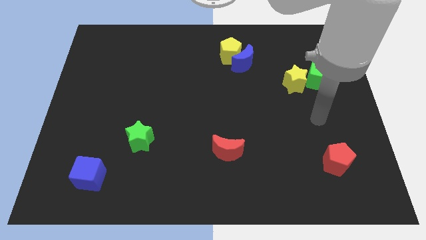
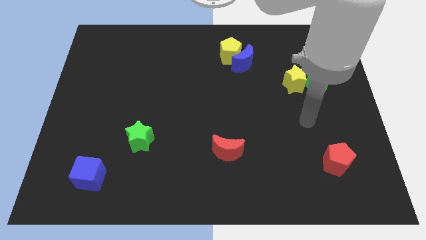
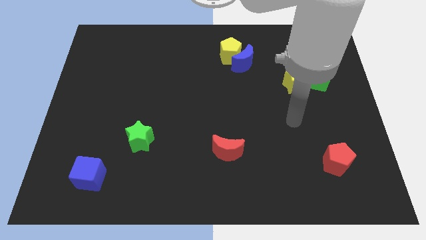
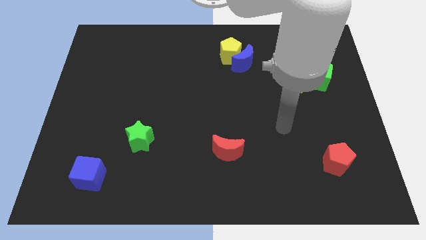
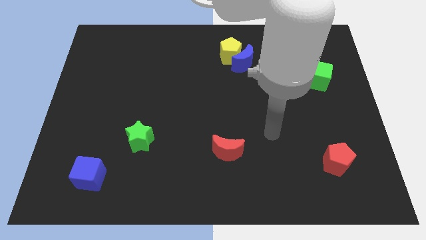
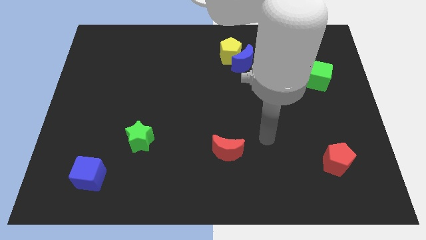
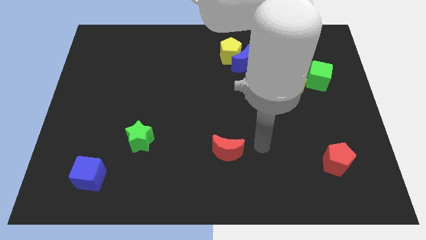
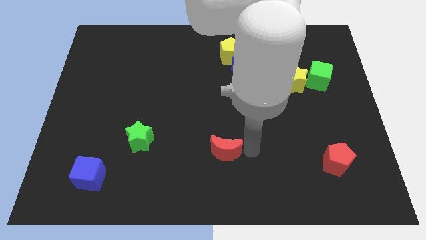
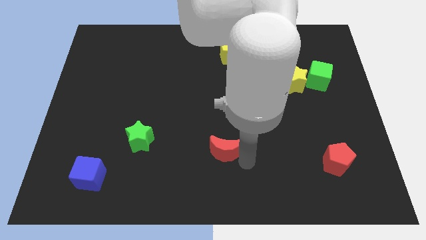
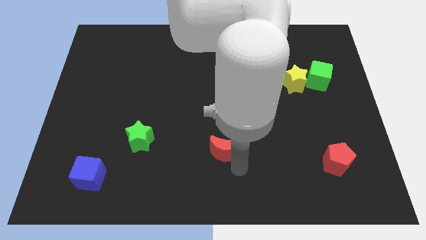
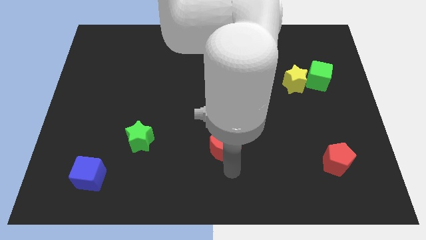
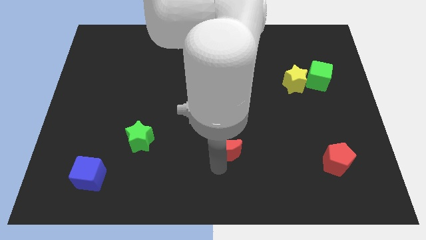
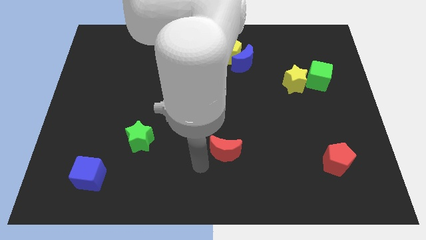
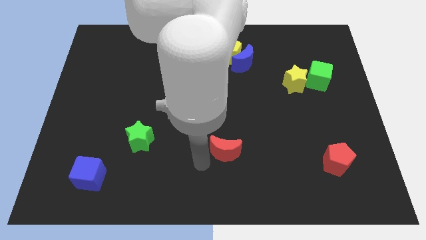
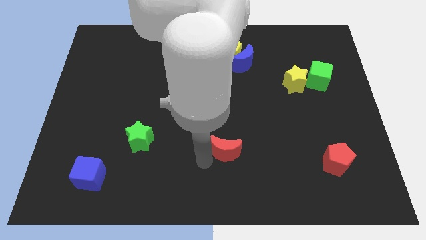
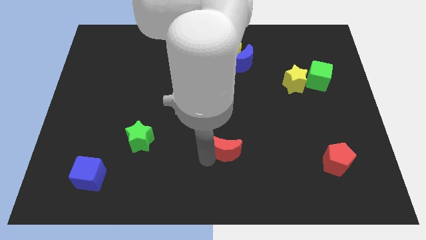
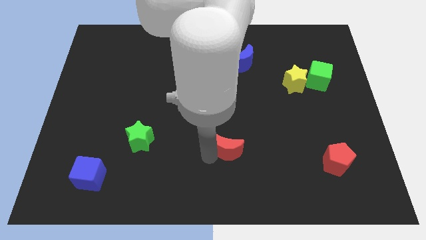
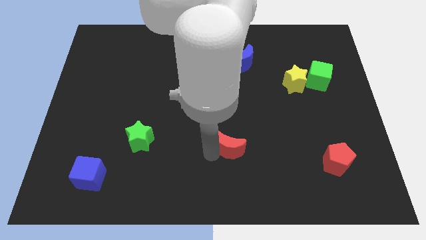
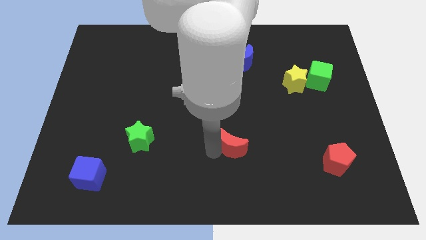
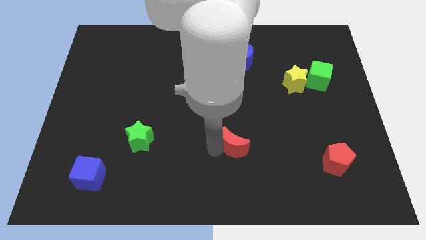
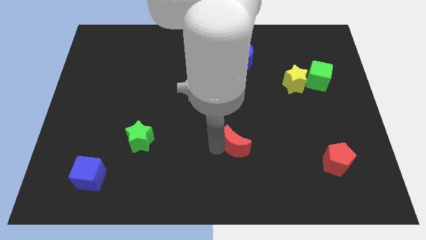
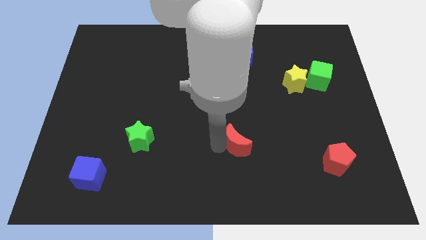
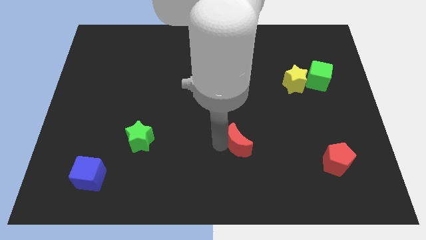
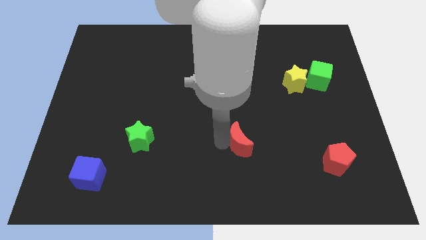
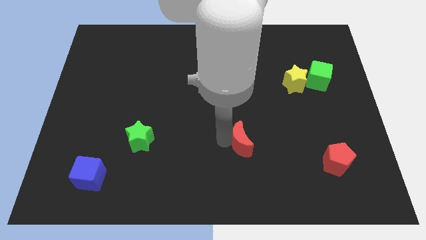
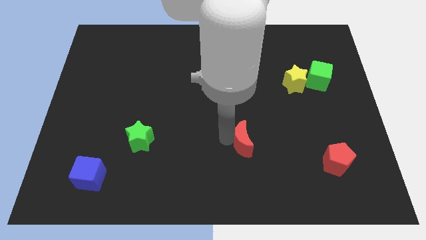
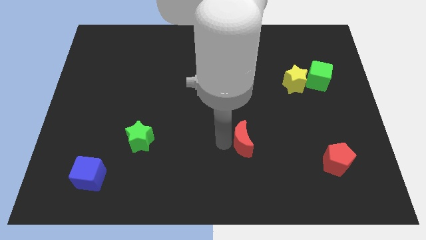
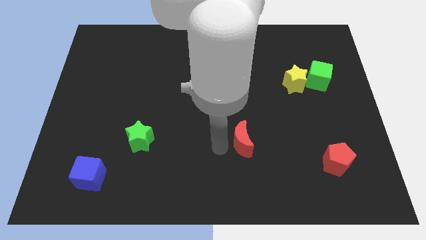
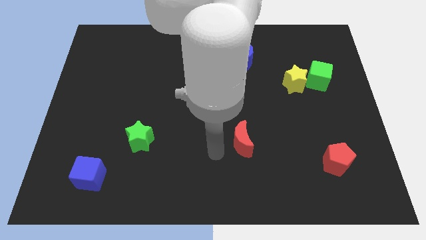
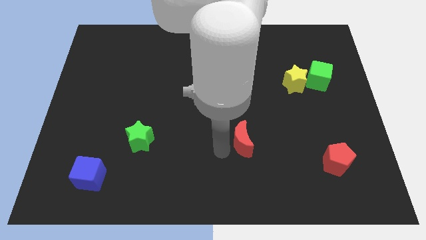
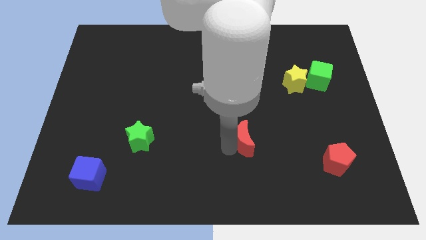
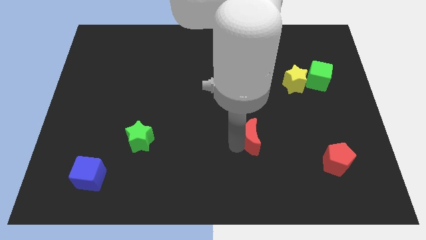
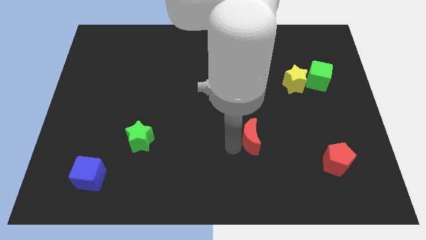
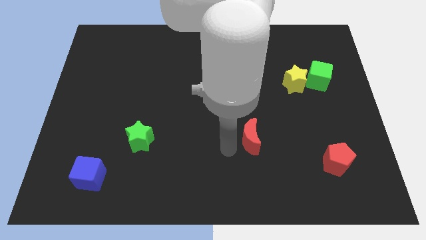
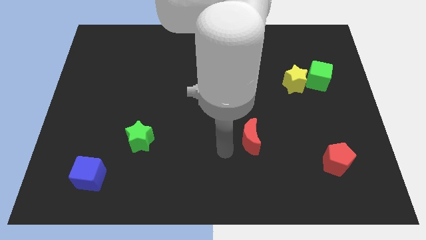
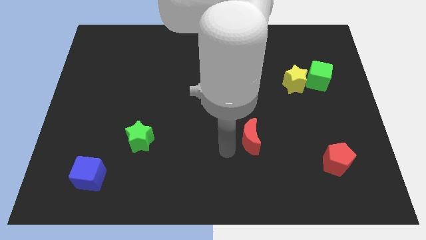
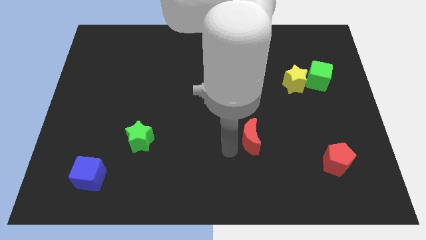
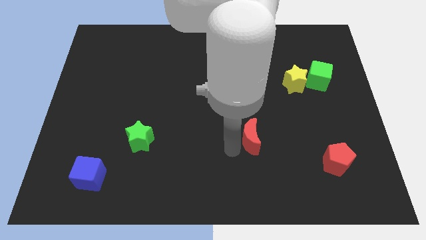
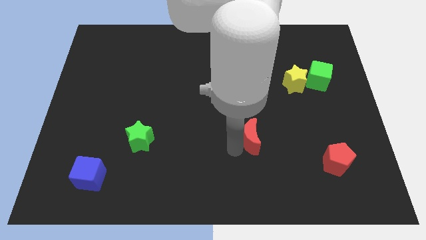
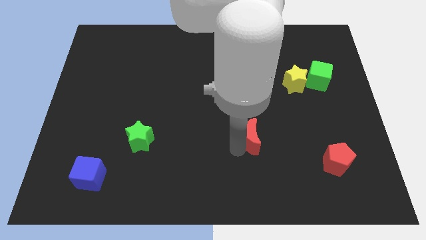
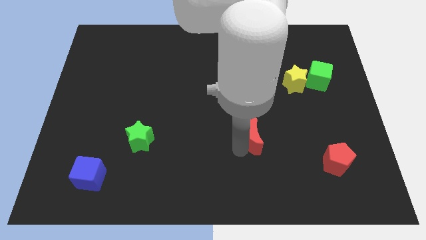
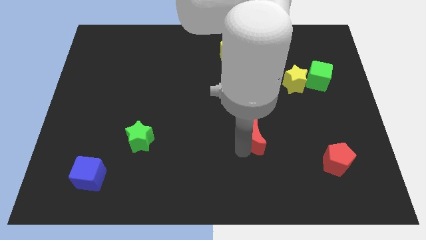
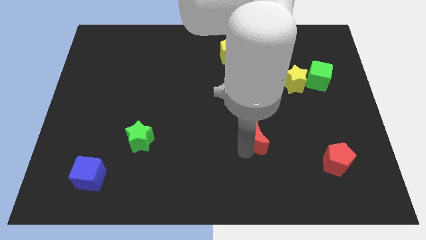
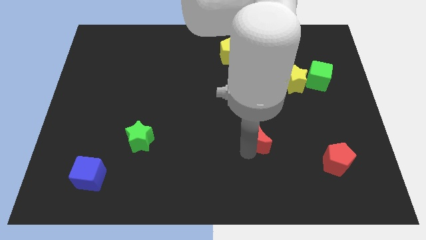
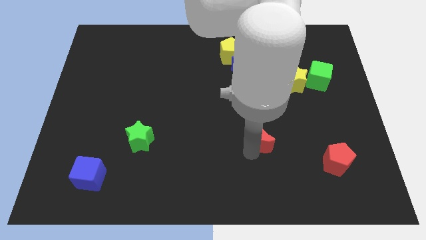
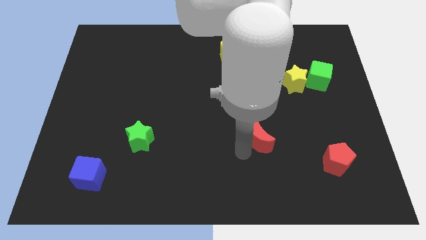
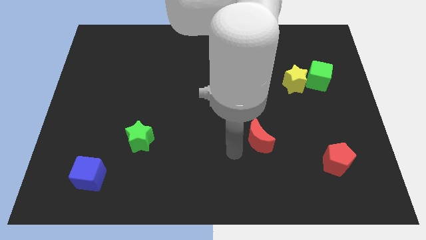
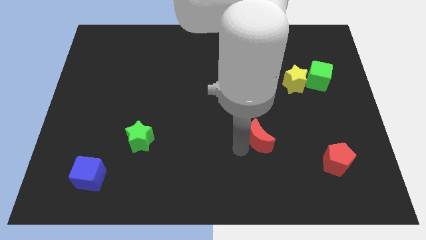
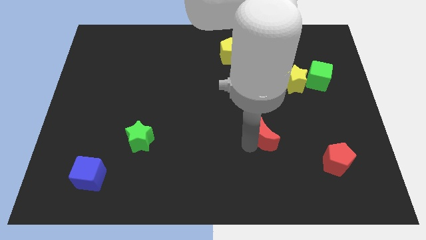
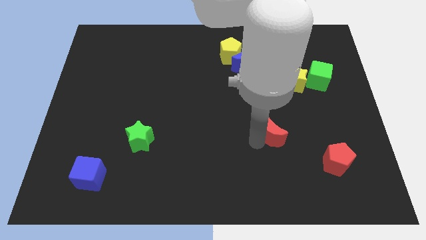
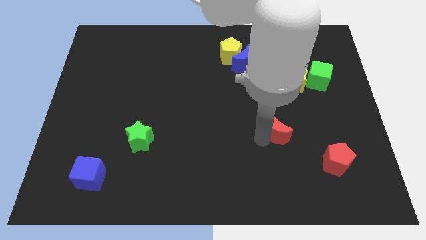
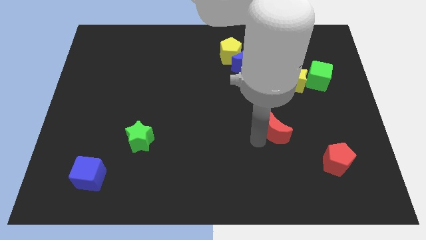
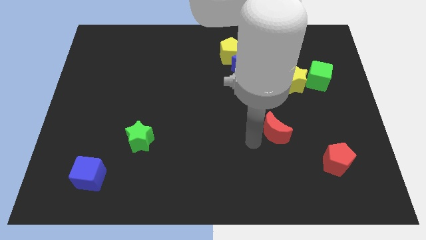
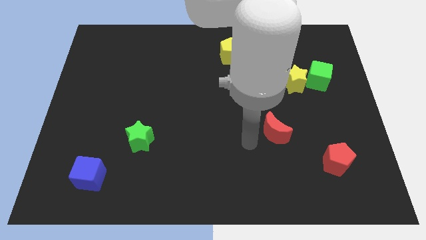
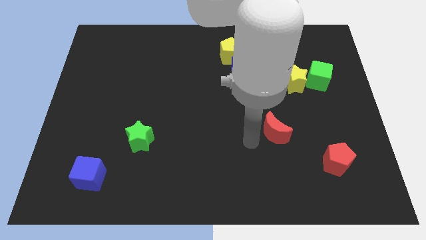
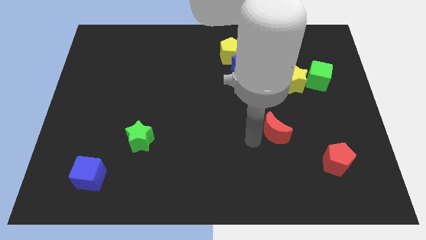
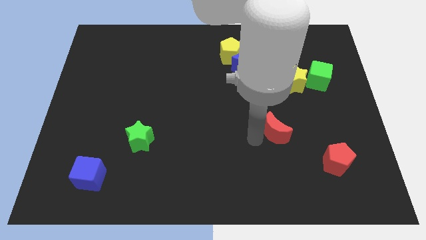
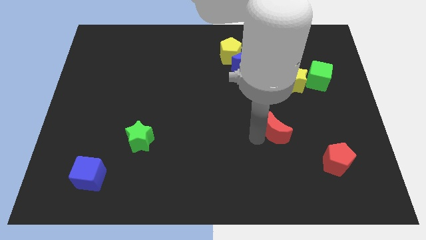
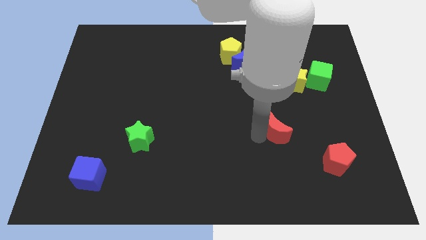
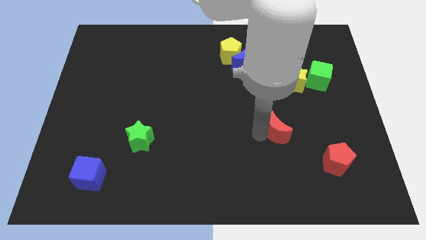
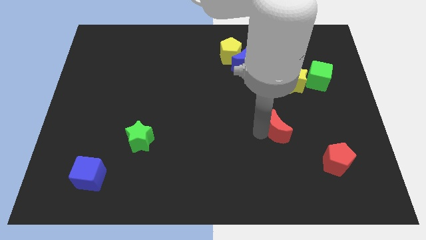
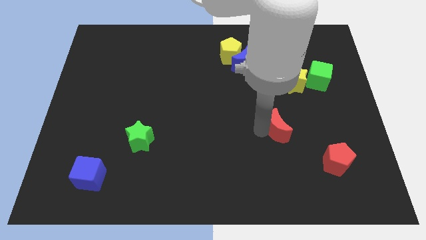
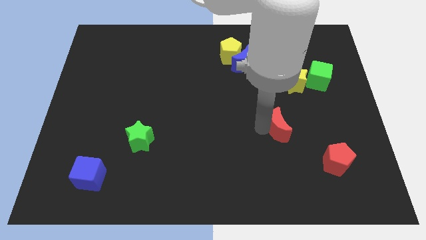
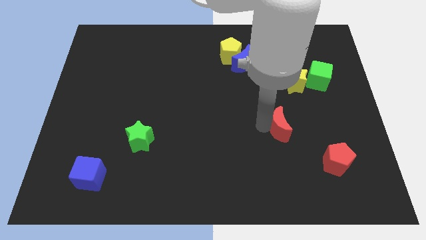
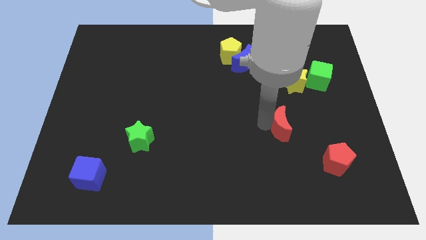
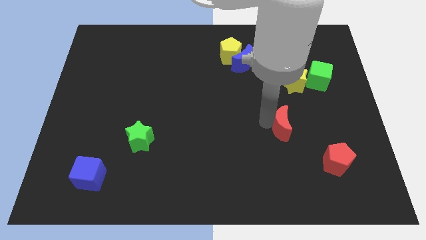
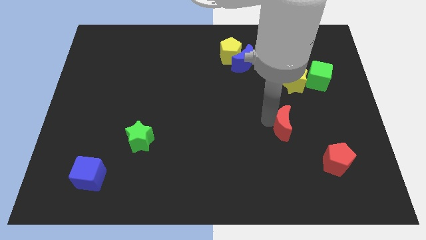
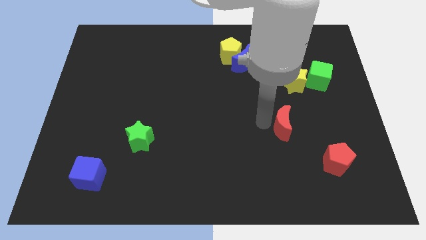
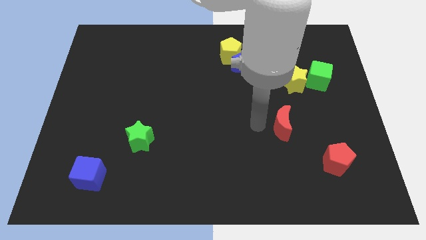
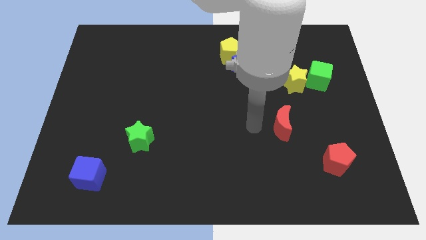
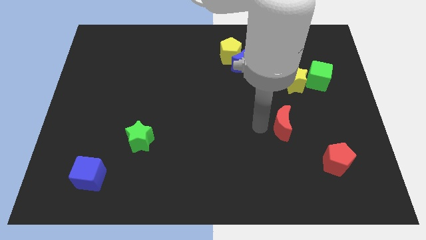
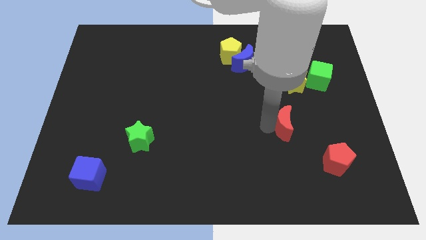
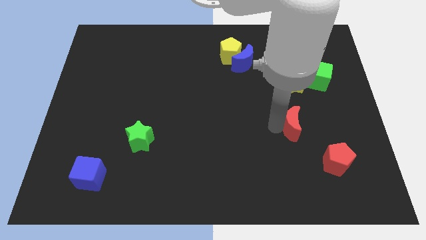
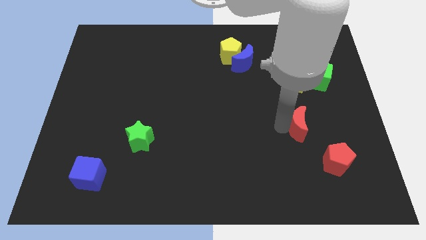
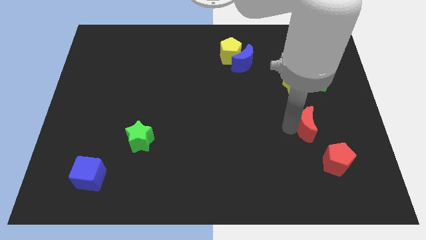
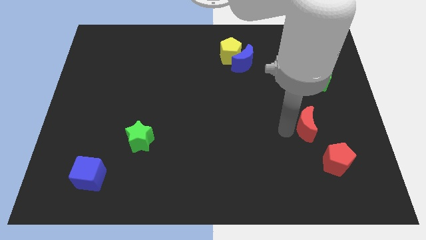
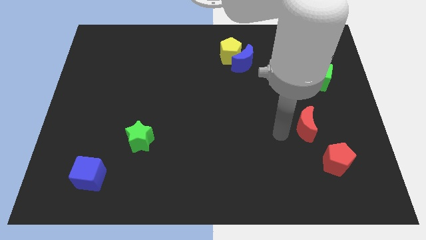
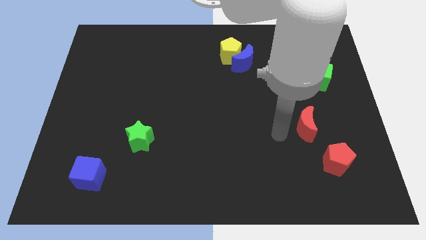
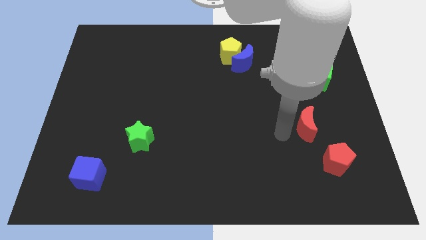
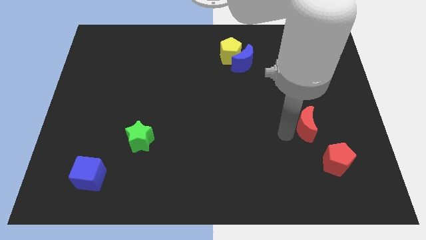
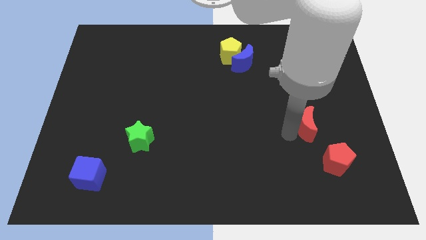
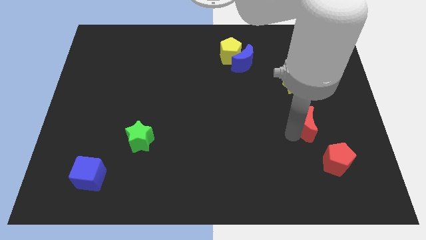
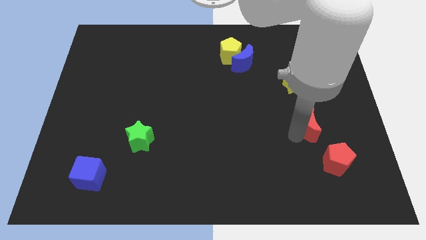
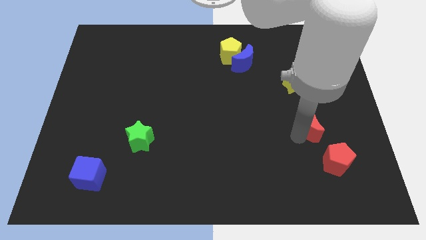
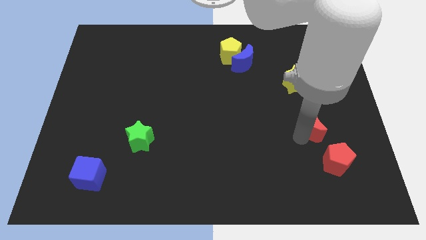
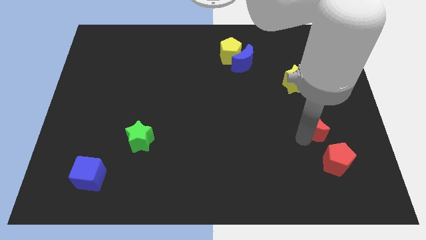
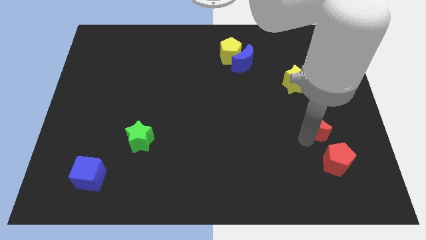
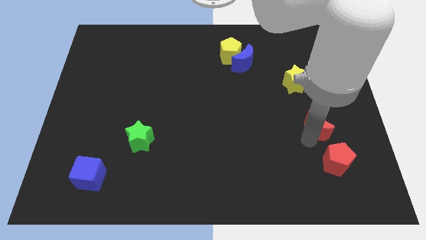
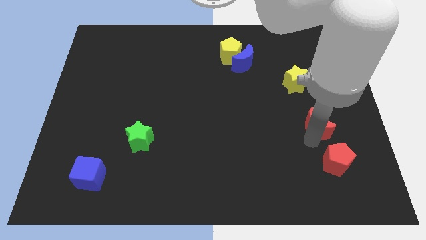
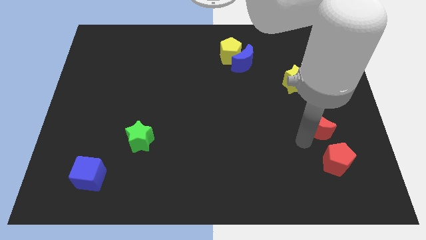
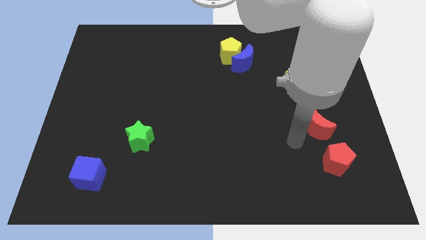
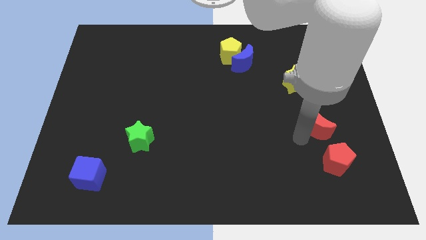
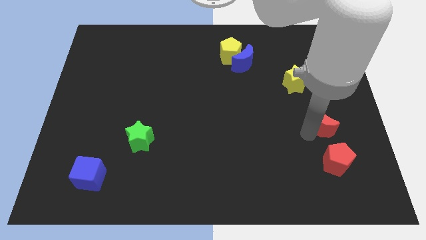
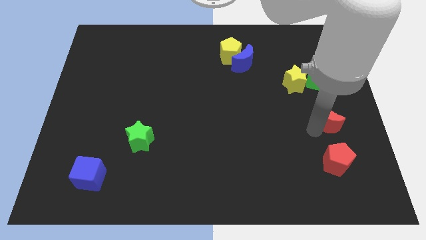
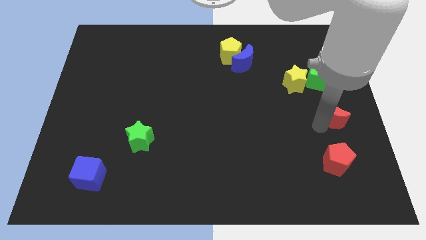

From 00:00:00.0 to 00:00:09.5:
push the red moon to the right side of the board
